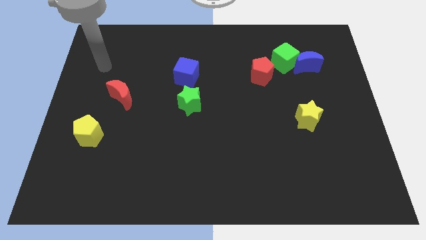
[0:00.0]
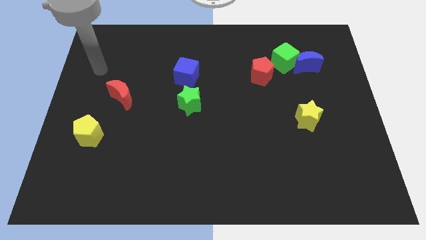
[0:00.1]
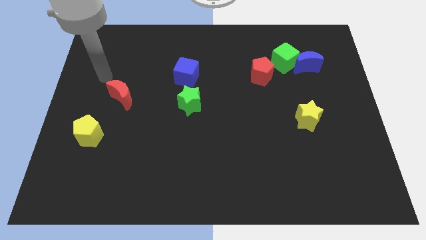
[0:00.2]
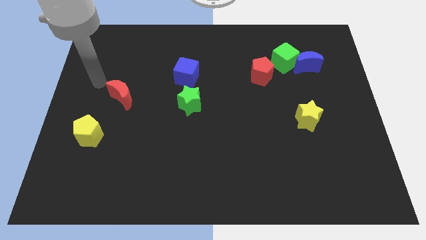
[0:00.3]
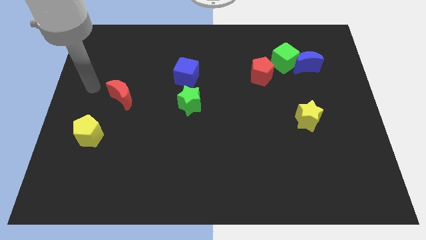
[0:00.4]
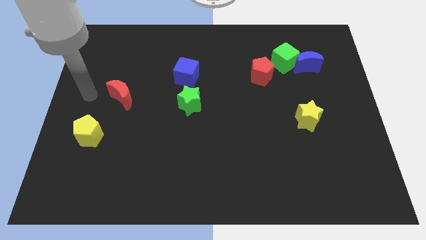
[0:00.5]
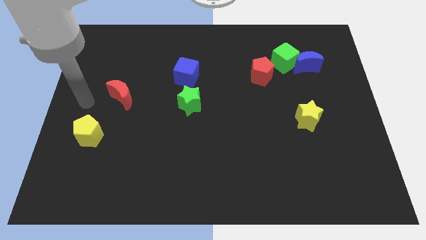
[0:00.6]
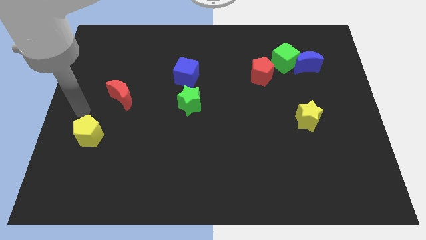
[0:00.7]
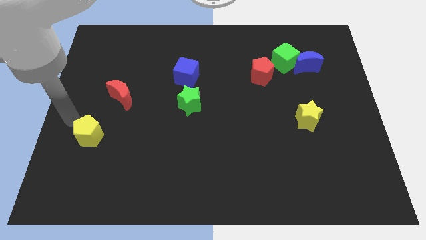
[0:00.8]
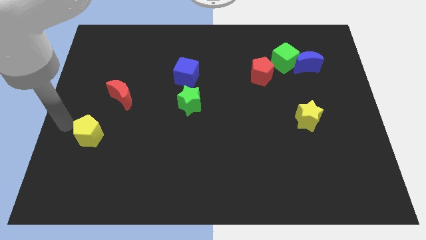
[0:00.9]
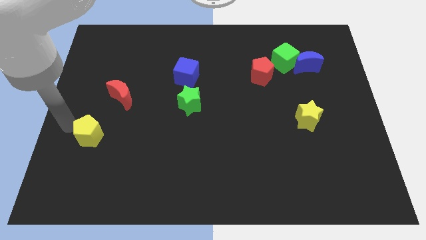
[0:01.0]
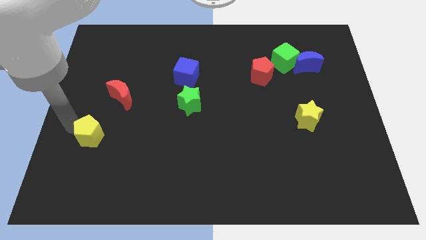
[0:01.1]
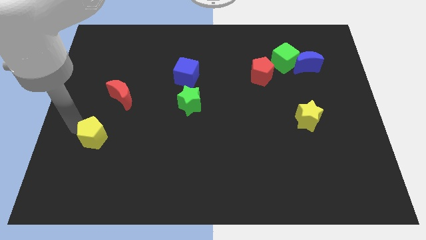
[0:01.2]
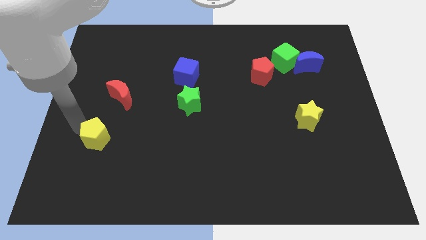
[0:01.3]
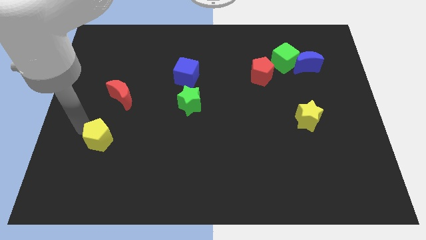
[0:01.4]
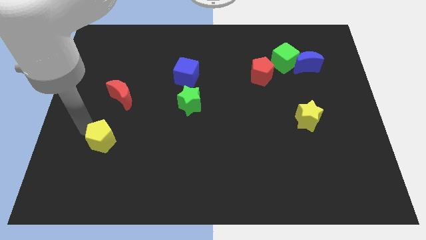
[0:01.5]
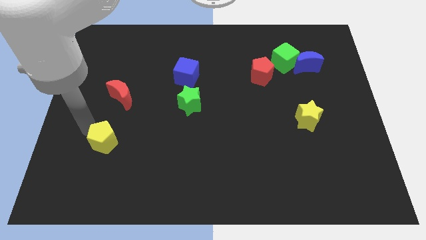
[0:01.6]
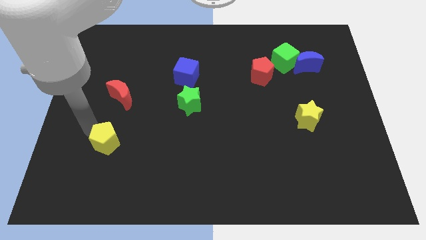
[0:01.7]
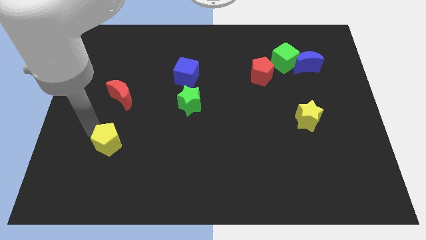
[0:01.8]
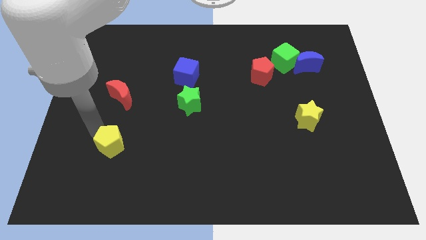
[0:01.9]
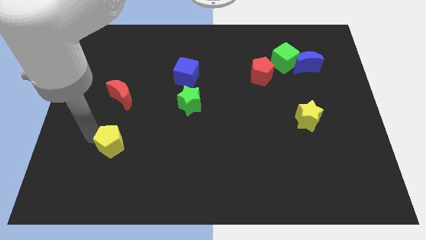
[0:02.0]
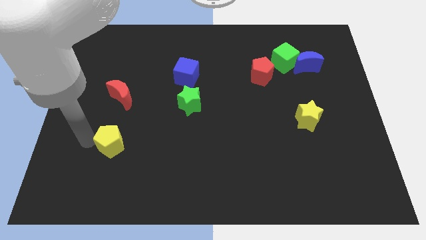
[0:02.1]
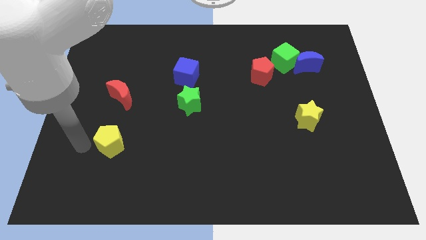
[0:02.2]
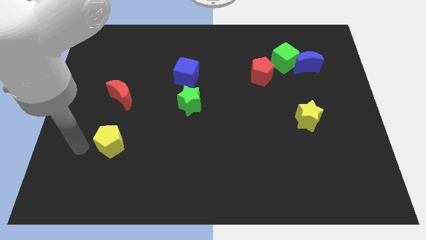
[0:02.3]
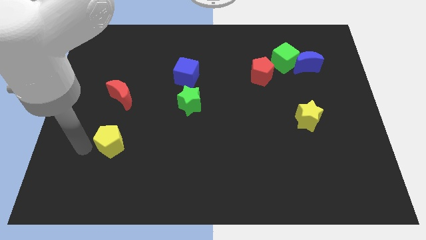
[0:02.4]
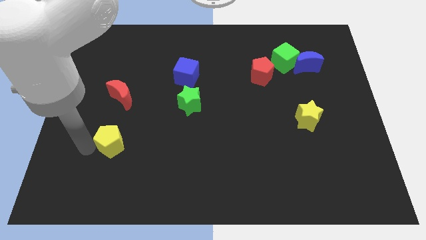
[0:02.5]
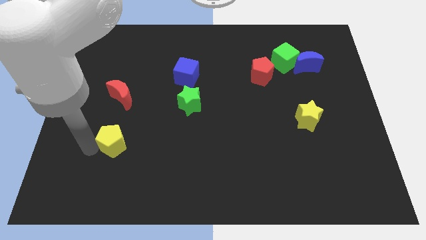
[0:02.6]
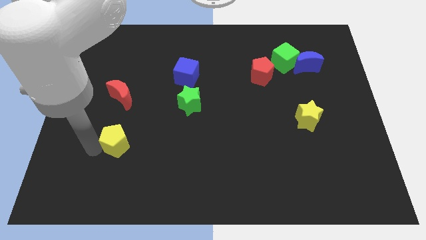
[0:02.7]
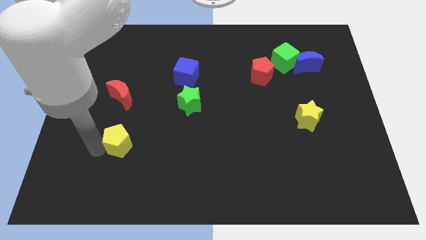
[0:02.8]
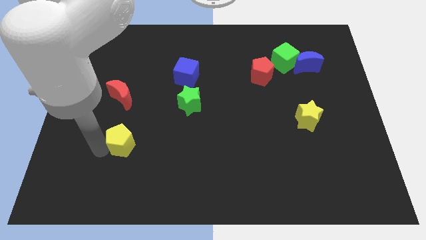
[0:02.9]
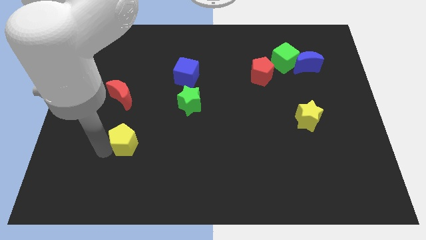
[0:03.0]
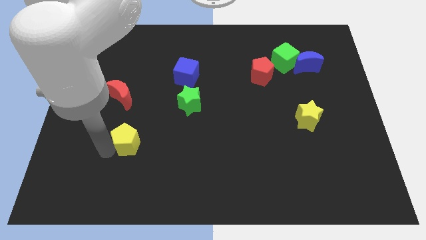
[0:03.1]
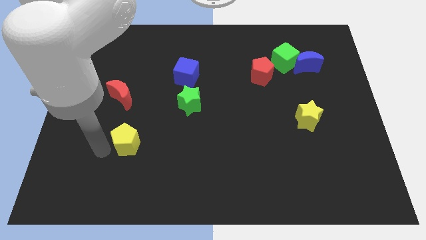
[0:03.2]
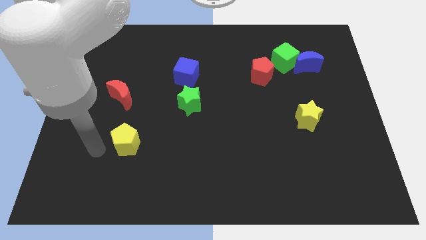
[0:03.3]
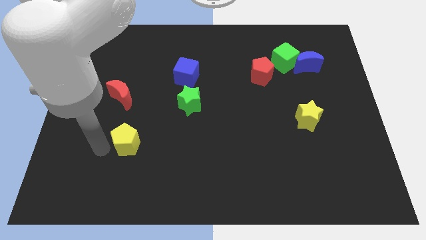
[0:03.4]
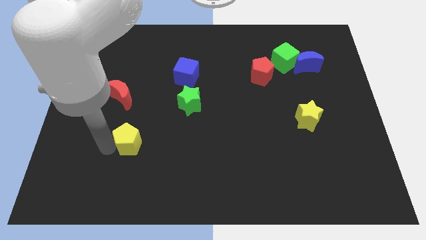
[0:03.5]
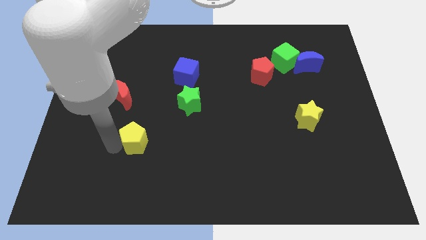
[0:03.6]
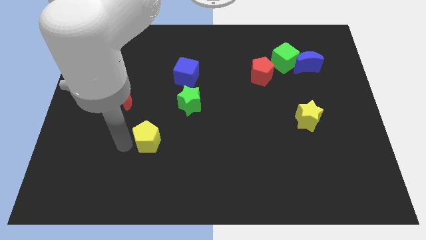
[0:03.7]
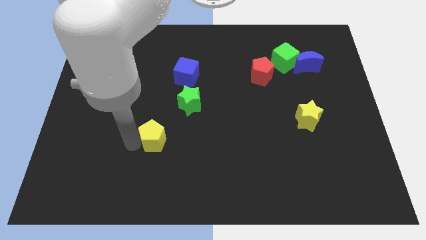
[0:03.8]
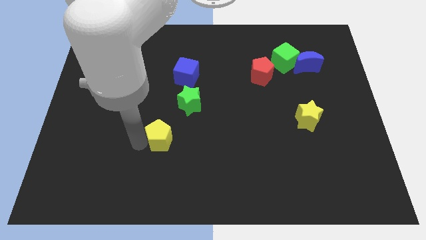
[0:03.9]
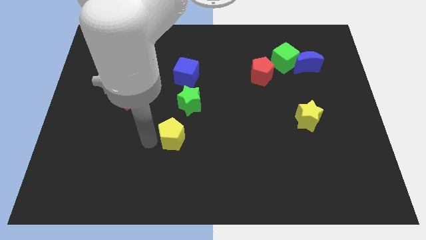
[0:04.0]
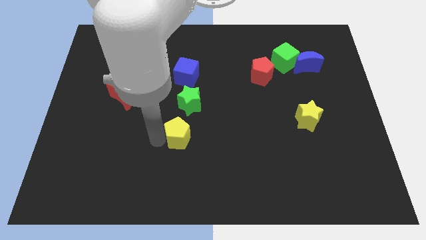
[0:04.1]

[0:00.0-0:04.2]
push the yellow pentagon right

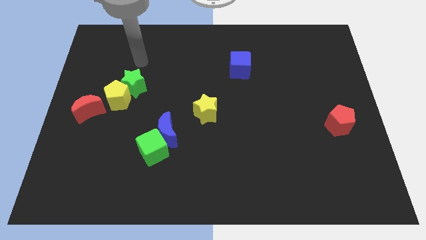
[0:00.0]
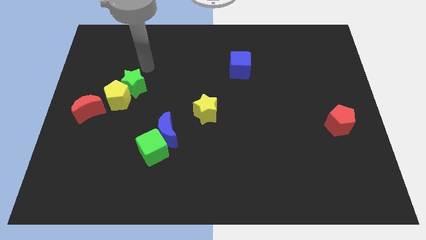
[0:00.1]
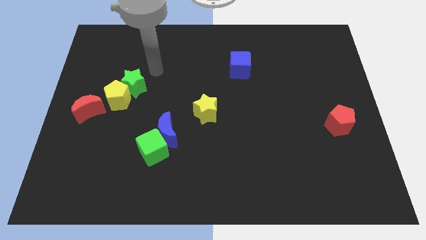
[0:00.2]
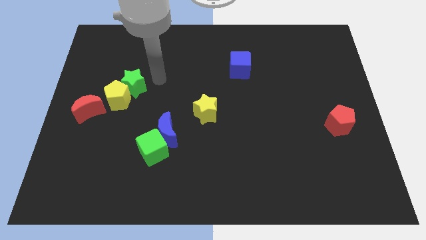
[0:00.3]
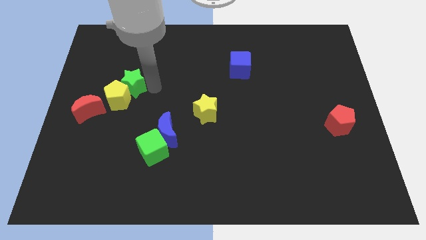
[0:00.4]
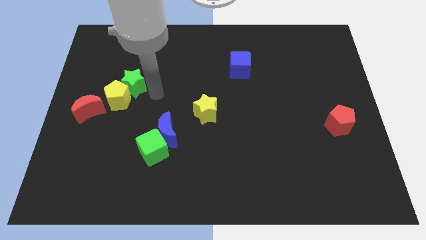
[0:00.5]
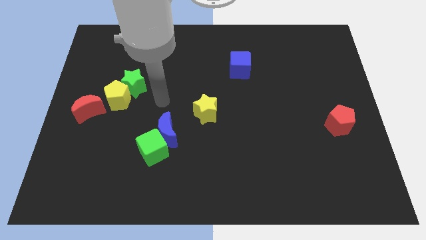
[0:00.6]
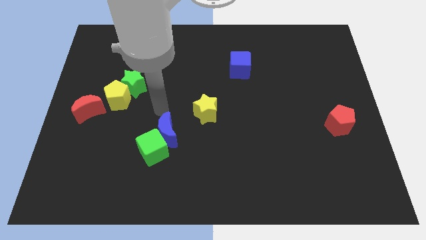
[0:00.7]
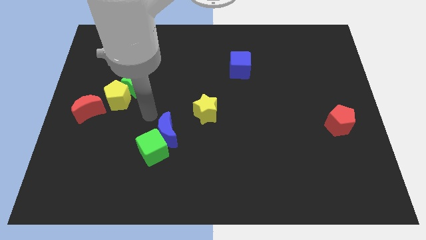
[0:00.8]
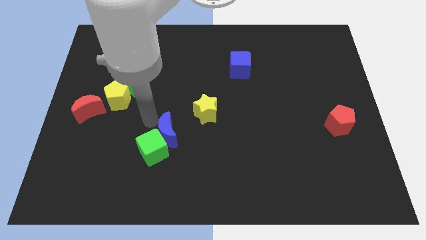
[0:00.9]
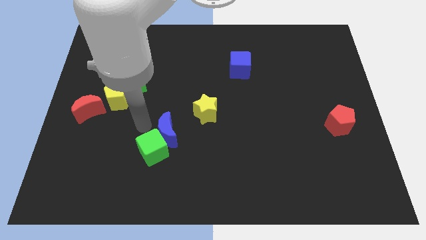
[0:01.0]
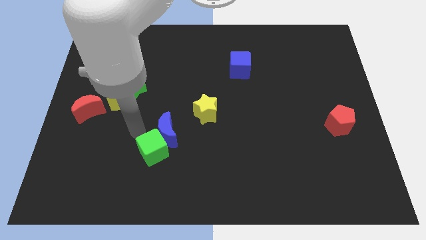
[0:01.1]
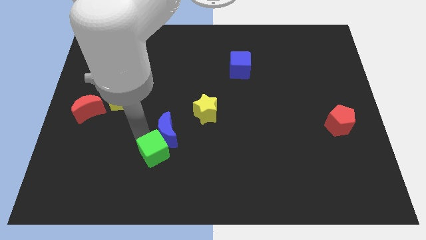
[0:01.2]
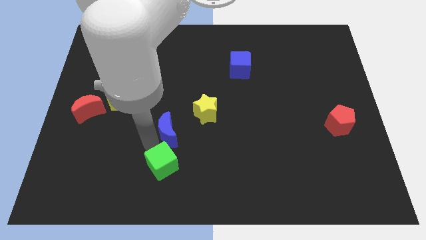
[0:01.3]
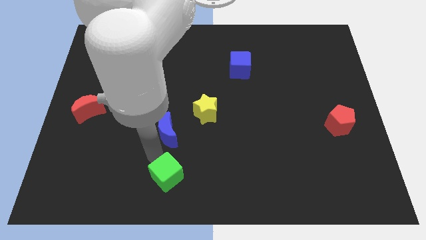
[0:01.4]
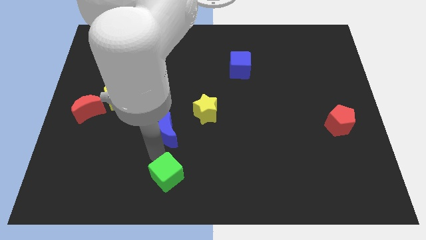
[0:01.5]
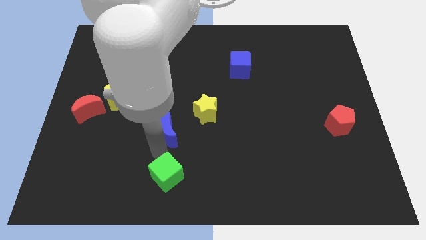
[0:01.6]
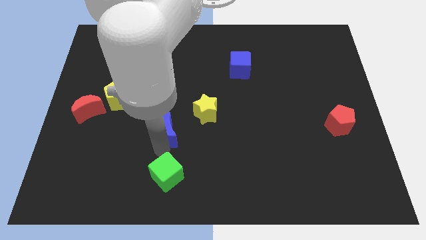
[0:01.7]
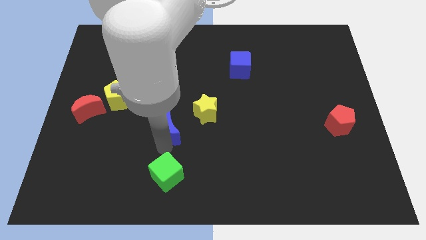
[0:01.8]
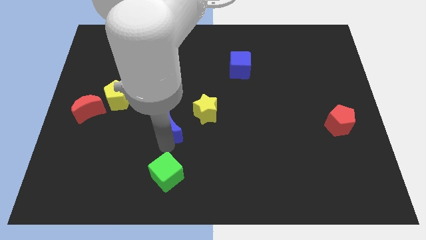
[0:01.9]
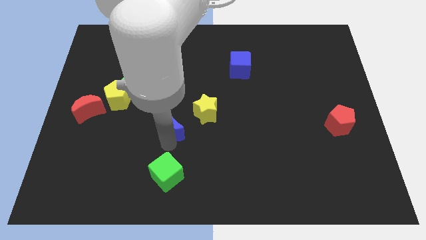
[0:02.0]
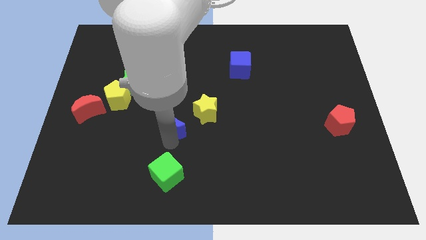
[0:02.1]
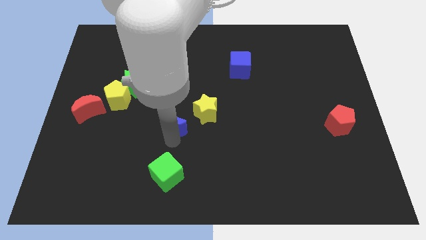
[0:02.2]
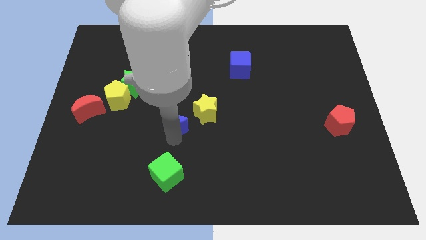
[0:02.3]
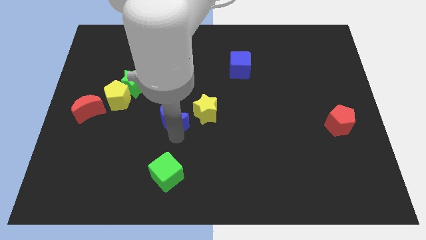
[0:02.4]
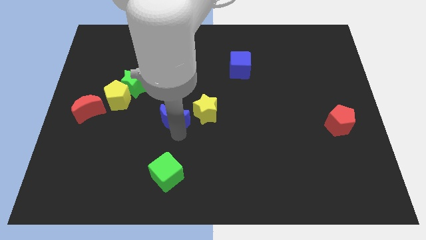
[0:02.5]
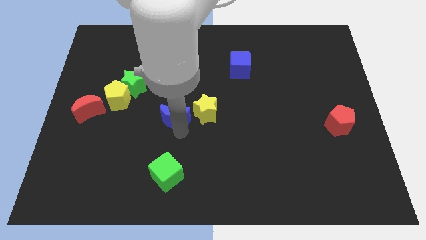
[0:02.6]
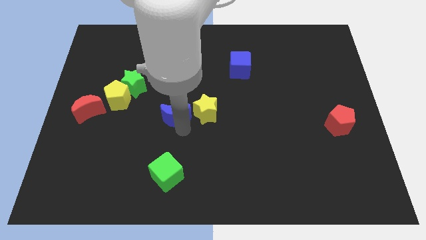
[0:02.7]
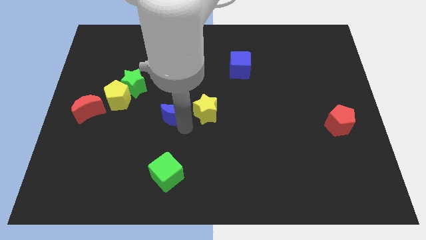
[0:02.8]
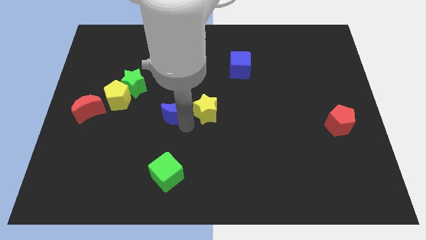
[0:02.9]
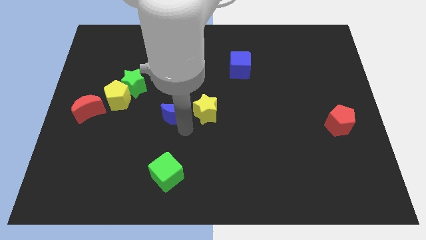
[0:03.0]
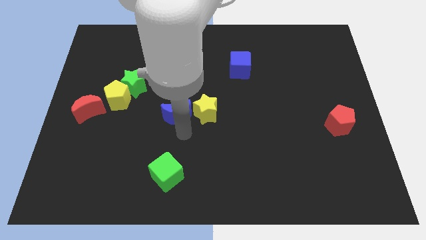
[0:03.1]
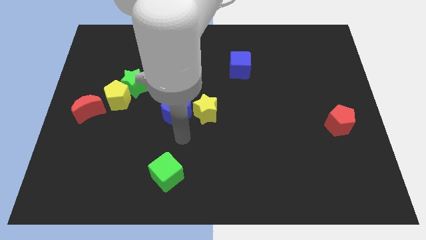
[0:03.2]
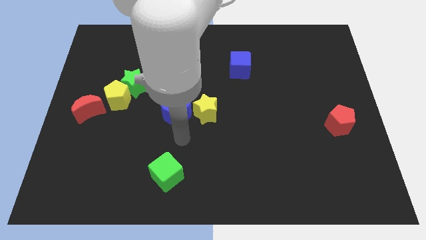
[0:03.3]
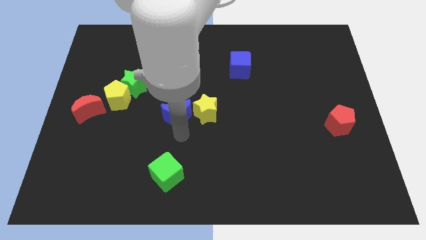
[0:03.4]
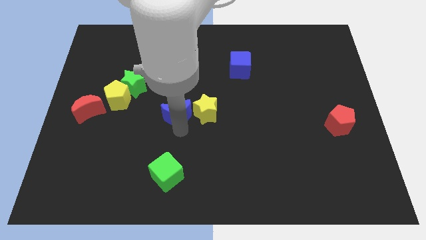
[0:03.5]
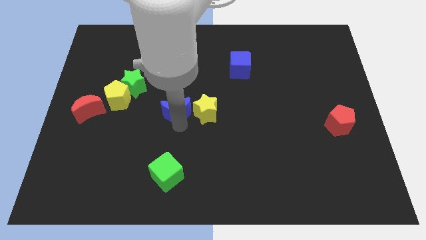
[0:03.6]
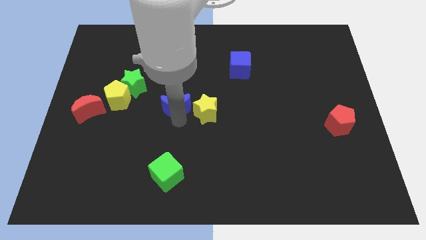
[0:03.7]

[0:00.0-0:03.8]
slightly slide the blue moon up
